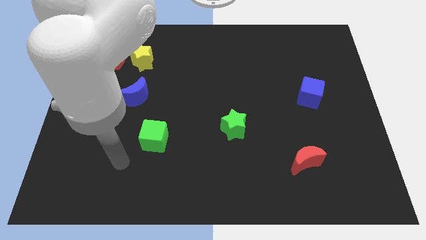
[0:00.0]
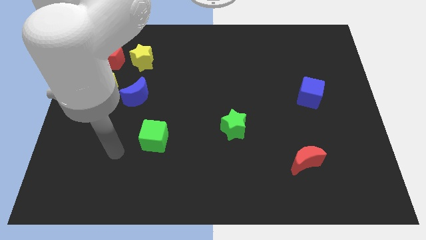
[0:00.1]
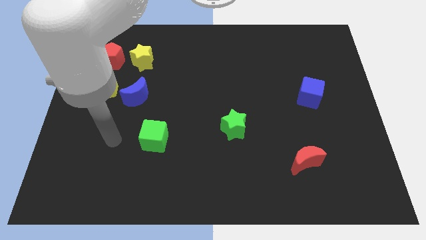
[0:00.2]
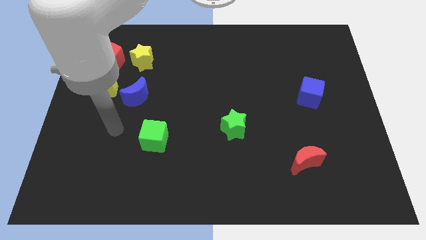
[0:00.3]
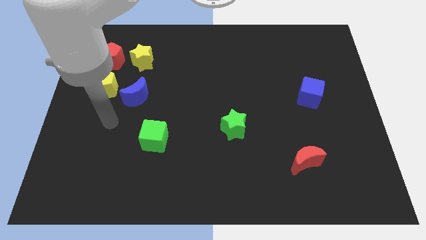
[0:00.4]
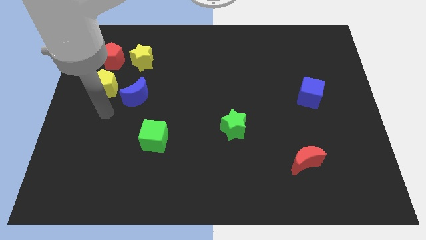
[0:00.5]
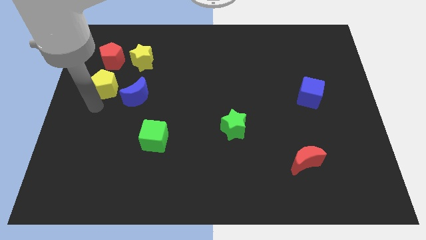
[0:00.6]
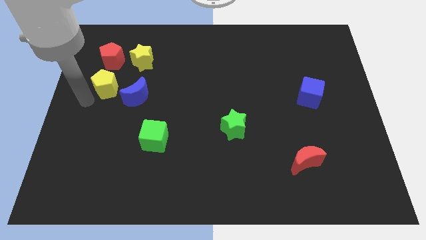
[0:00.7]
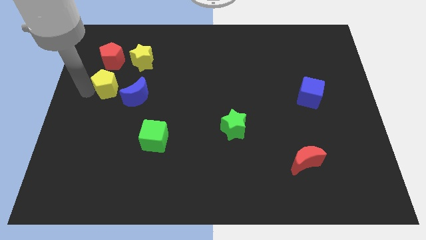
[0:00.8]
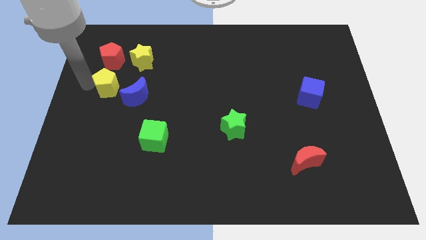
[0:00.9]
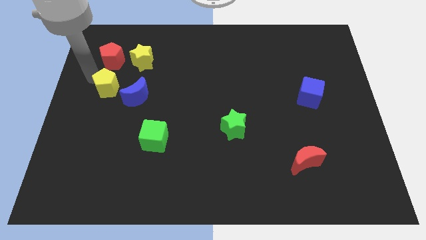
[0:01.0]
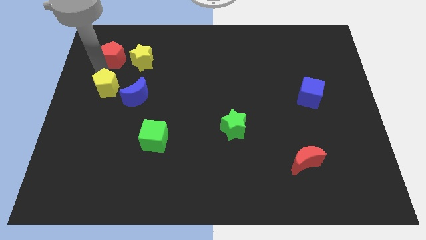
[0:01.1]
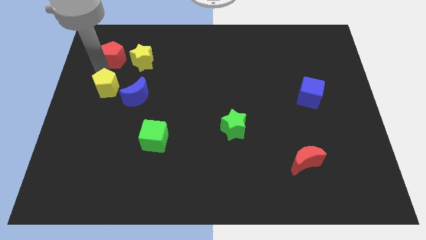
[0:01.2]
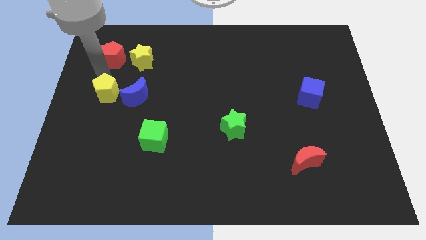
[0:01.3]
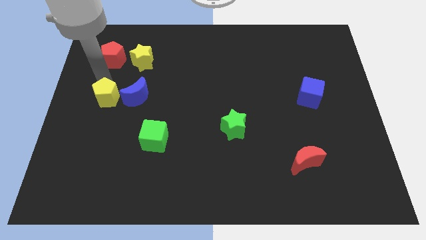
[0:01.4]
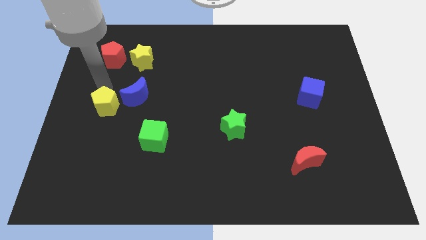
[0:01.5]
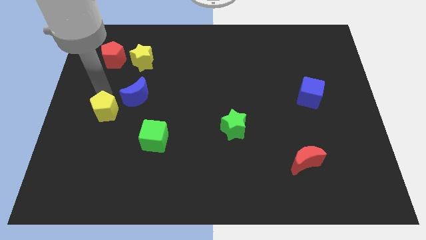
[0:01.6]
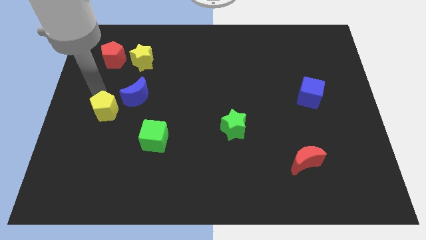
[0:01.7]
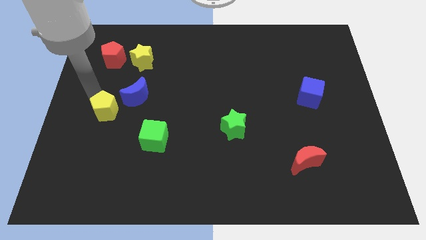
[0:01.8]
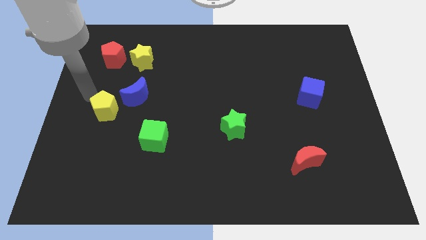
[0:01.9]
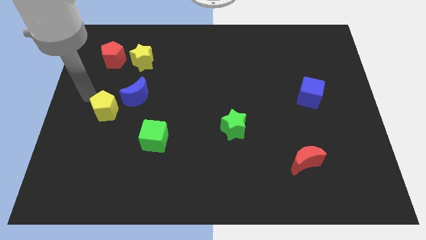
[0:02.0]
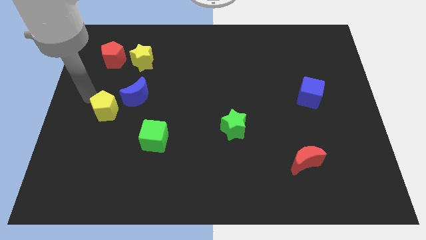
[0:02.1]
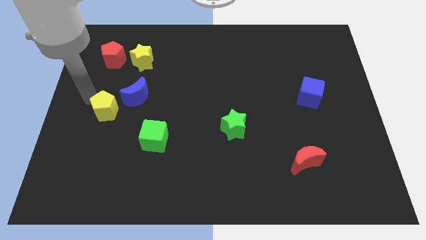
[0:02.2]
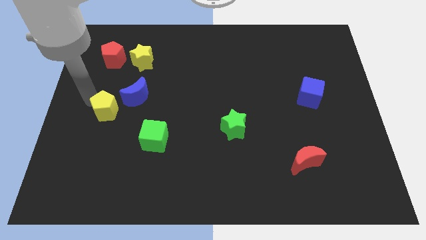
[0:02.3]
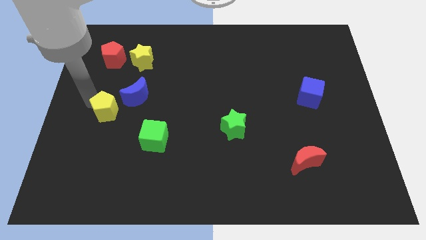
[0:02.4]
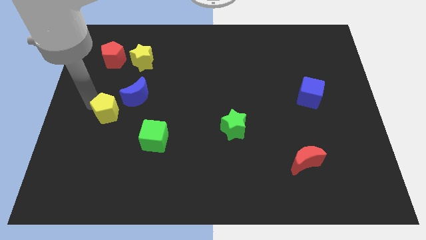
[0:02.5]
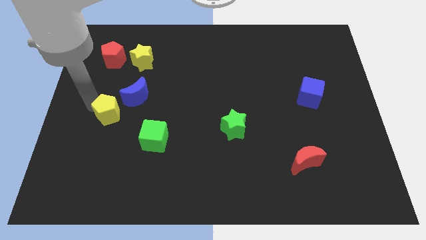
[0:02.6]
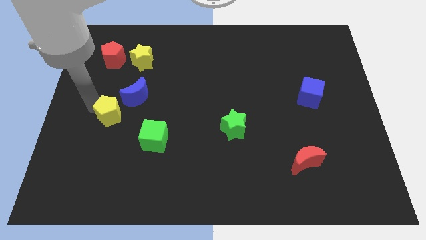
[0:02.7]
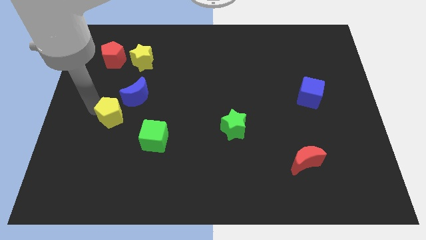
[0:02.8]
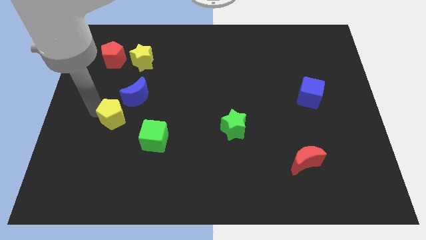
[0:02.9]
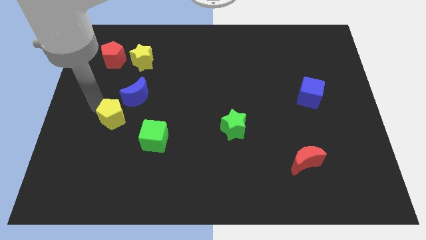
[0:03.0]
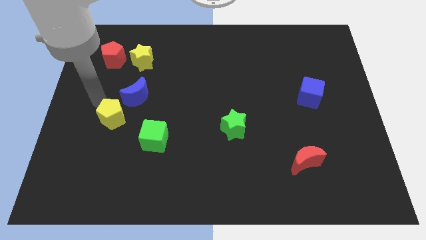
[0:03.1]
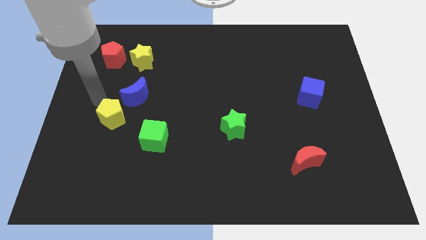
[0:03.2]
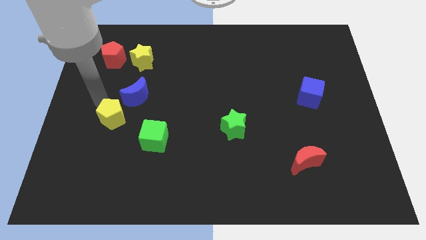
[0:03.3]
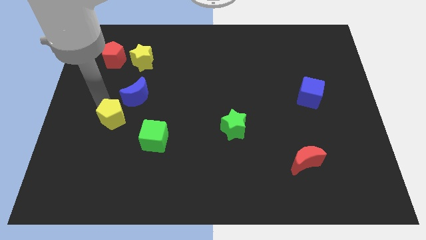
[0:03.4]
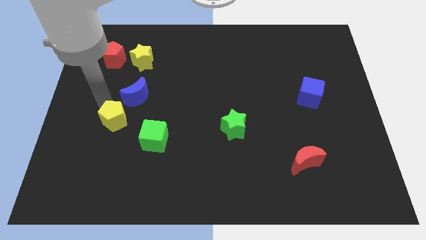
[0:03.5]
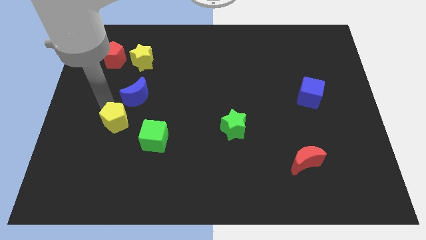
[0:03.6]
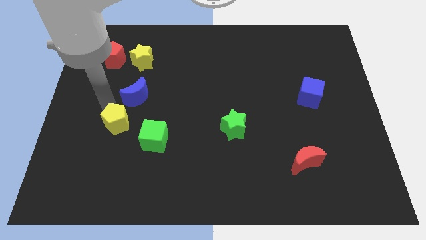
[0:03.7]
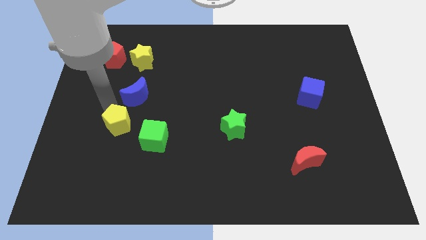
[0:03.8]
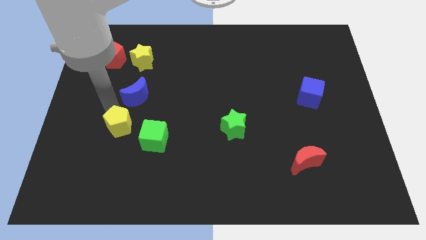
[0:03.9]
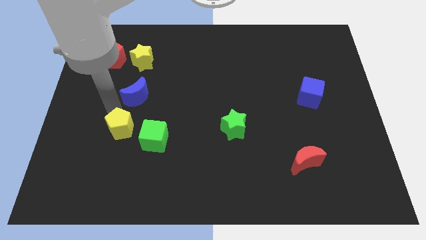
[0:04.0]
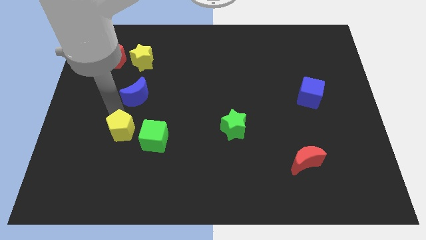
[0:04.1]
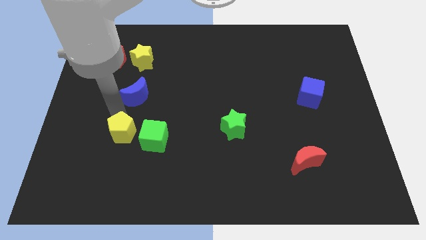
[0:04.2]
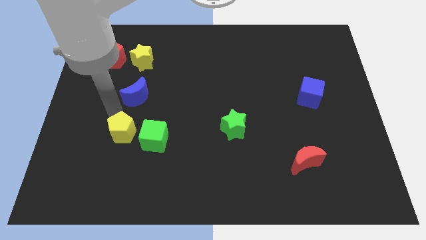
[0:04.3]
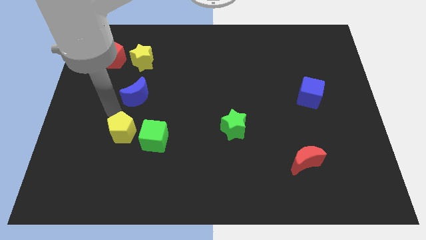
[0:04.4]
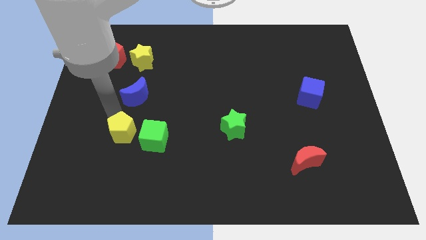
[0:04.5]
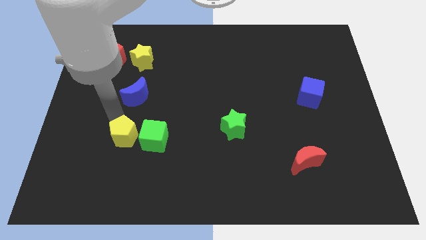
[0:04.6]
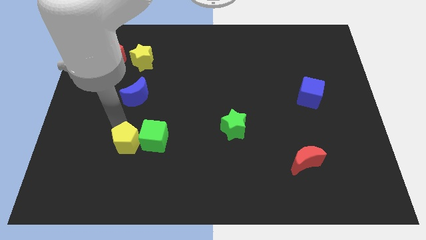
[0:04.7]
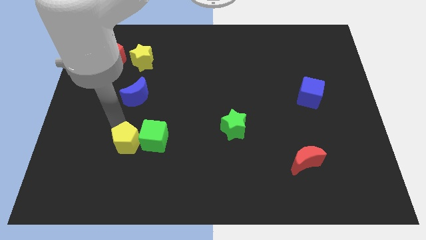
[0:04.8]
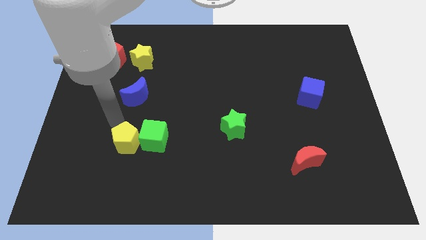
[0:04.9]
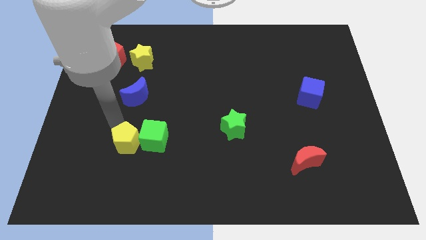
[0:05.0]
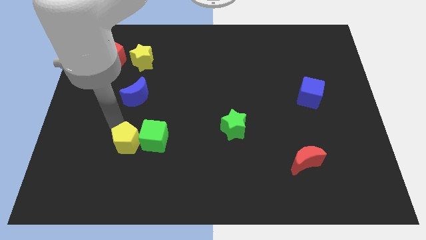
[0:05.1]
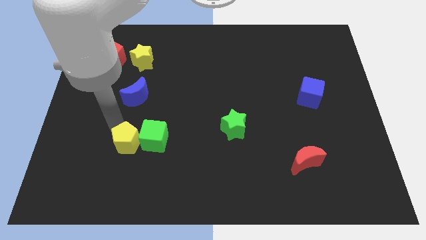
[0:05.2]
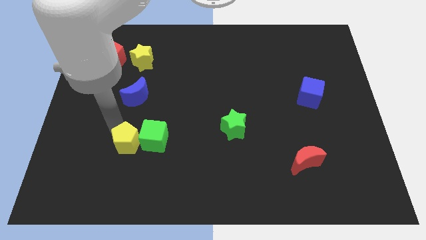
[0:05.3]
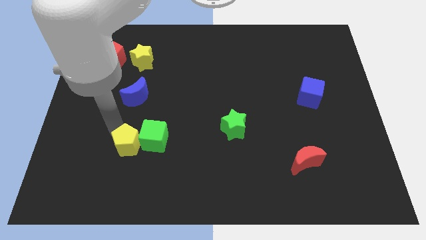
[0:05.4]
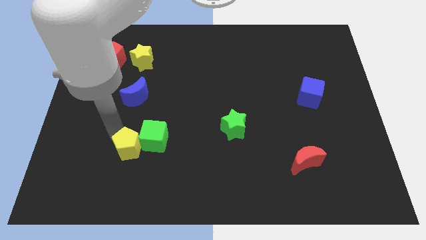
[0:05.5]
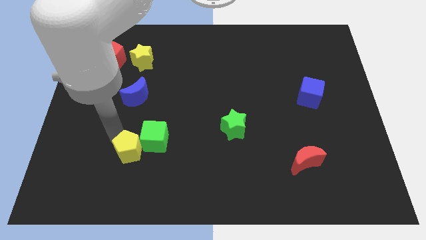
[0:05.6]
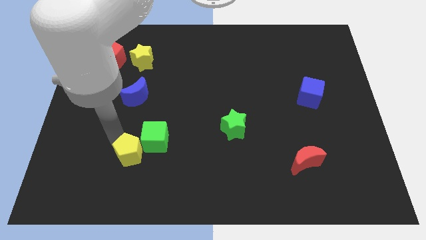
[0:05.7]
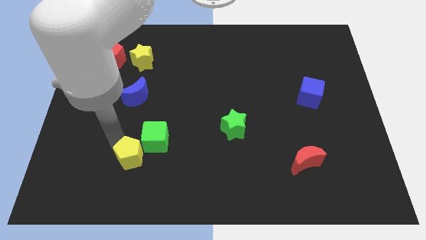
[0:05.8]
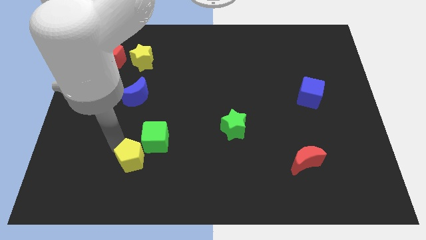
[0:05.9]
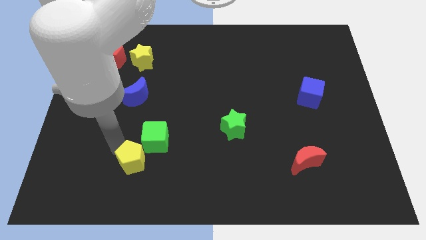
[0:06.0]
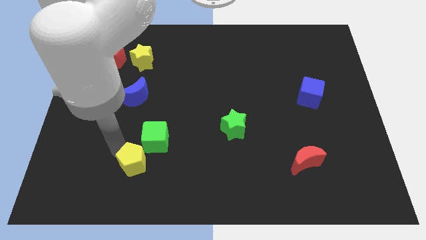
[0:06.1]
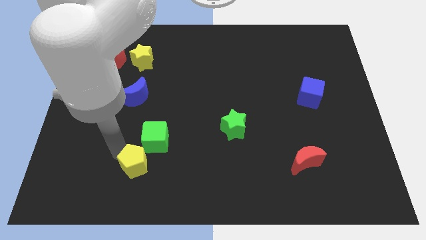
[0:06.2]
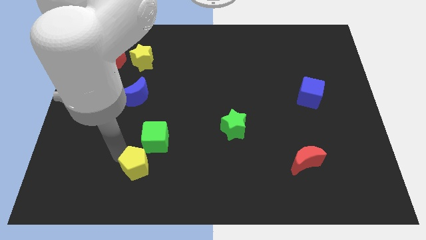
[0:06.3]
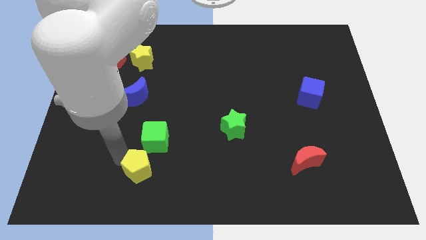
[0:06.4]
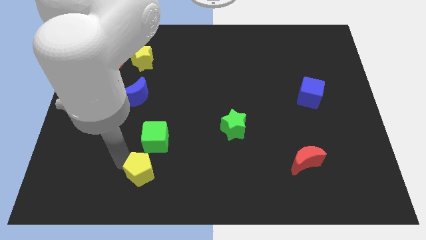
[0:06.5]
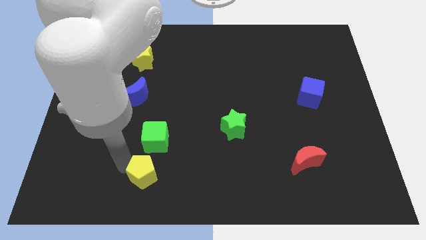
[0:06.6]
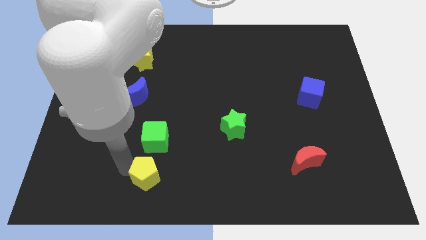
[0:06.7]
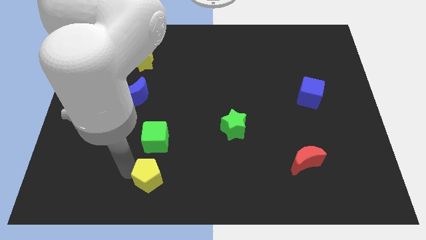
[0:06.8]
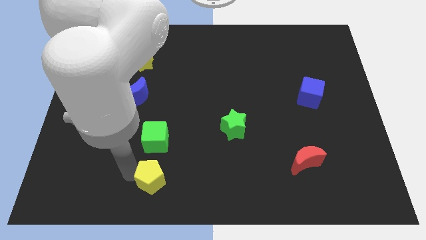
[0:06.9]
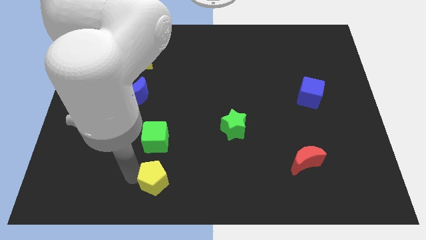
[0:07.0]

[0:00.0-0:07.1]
slide the yellow pentagon to the bottom side

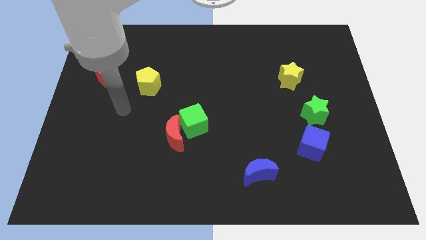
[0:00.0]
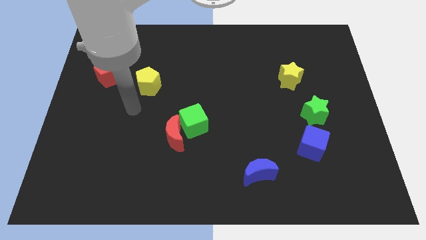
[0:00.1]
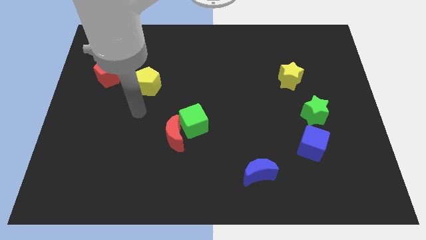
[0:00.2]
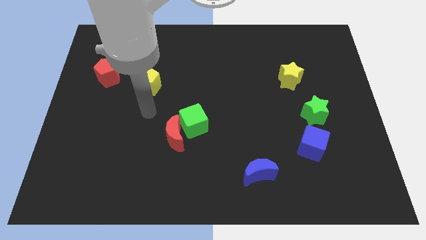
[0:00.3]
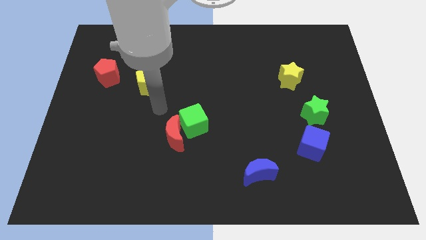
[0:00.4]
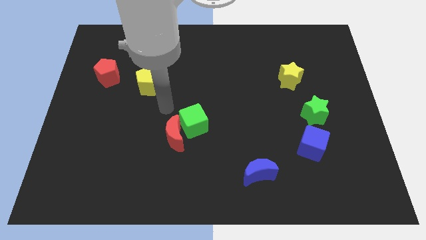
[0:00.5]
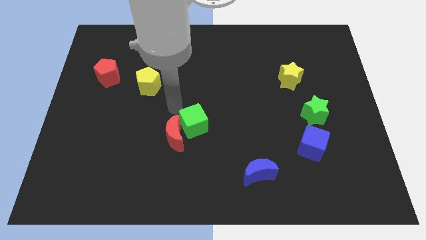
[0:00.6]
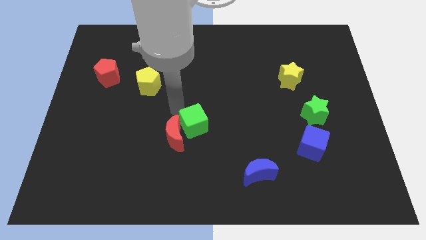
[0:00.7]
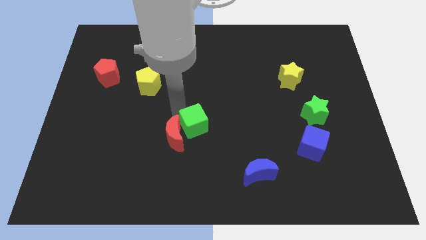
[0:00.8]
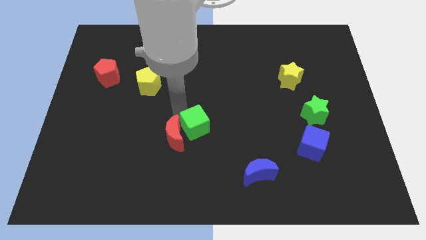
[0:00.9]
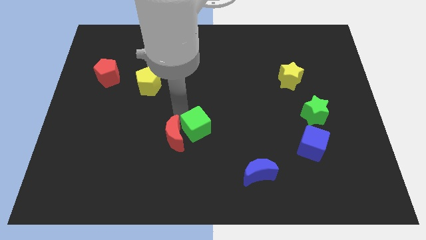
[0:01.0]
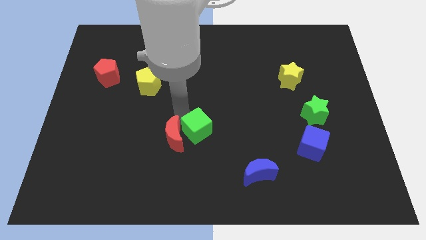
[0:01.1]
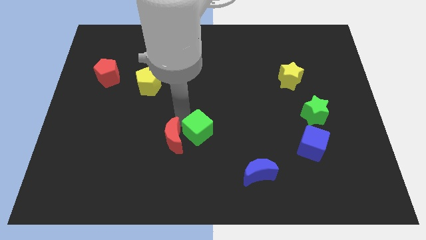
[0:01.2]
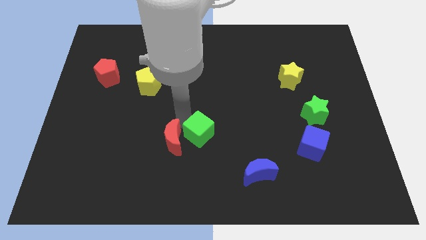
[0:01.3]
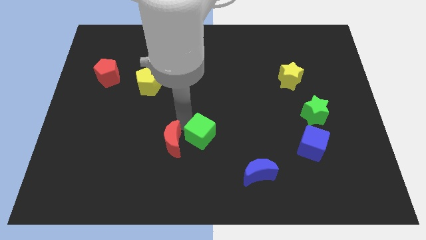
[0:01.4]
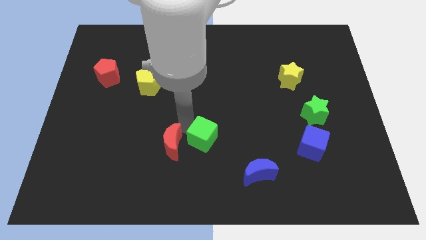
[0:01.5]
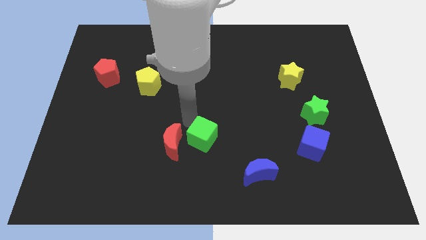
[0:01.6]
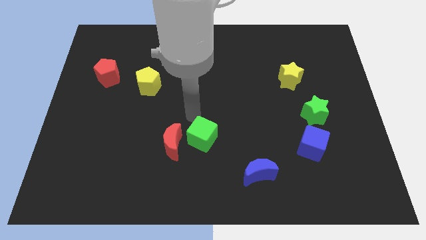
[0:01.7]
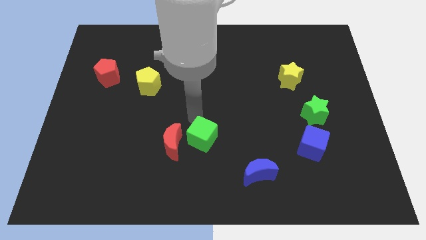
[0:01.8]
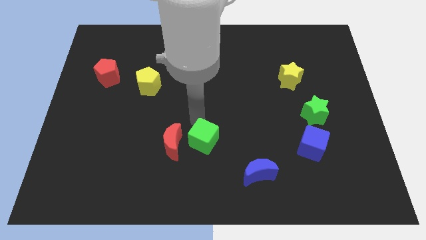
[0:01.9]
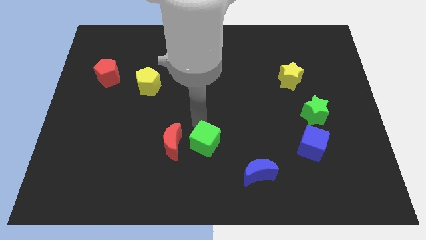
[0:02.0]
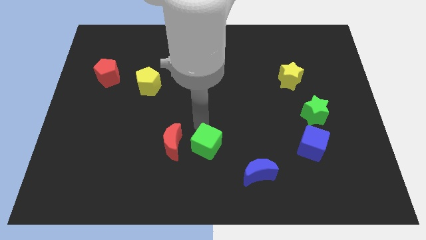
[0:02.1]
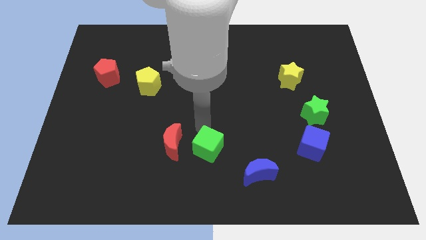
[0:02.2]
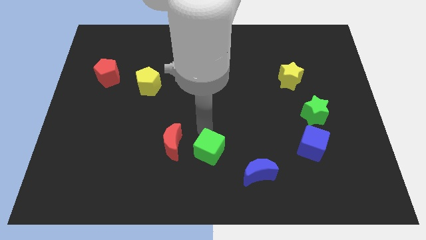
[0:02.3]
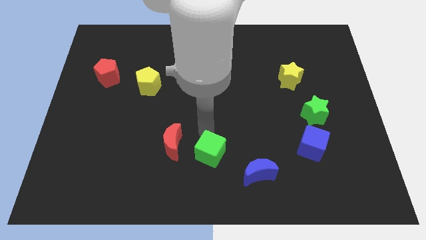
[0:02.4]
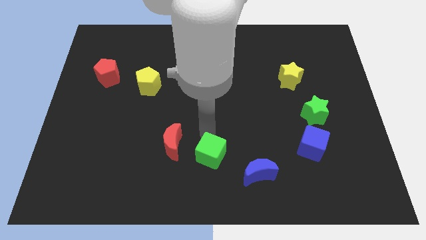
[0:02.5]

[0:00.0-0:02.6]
push the green cube to the bottom side
